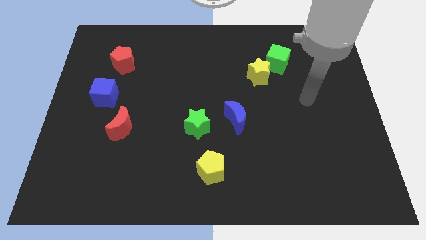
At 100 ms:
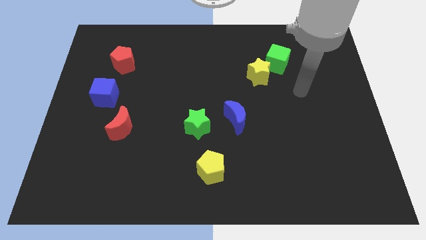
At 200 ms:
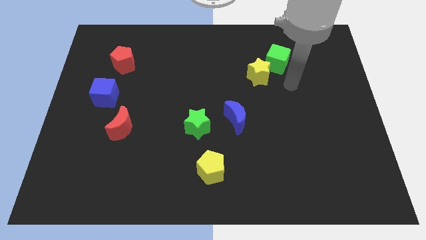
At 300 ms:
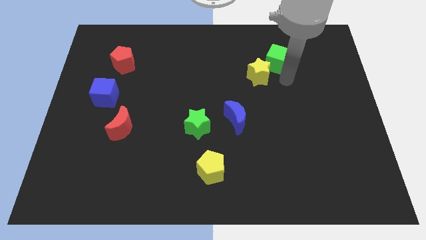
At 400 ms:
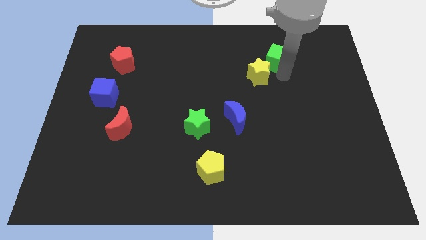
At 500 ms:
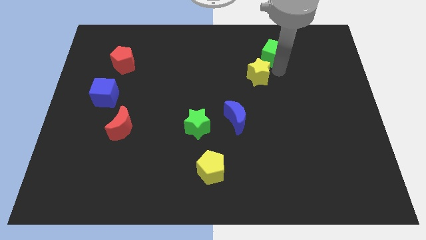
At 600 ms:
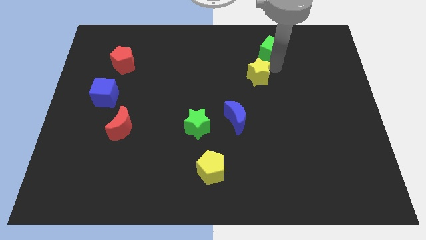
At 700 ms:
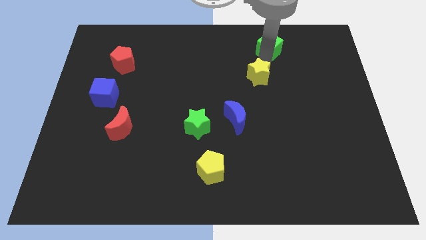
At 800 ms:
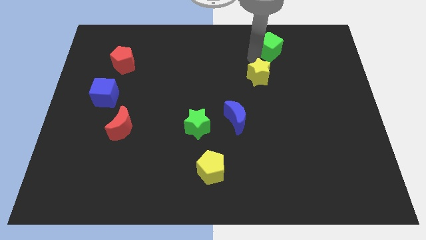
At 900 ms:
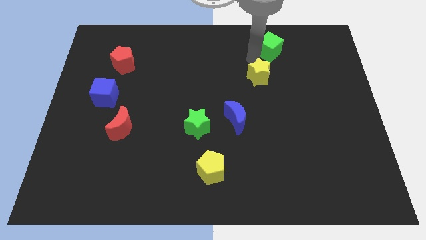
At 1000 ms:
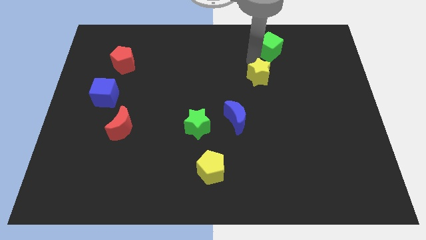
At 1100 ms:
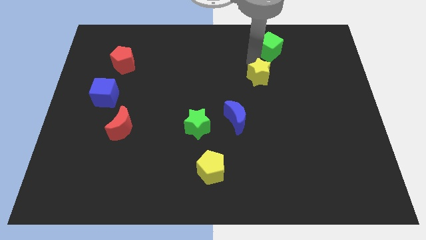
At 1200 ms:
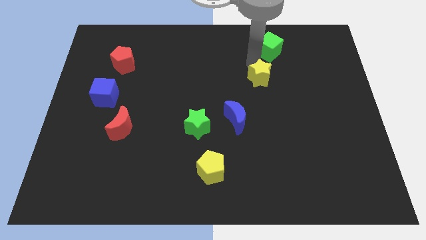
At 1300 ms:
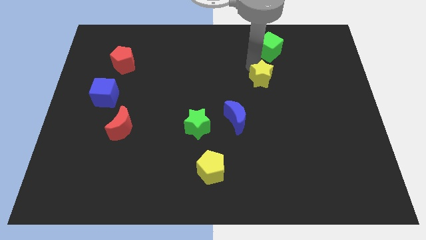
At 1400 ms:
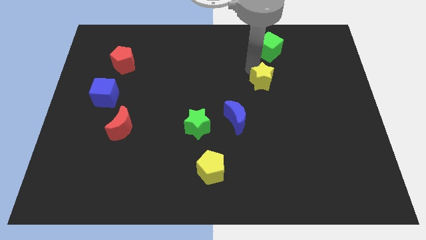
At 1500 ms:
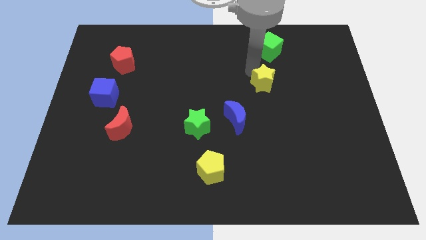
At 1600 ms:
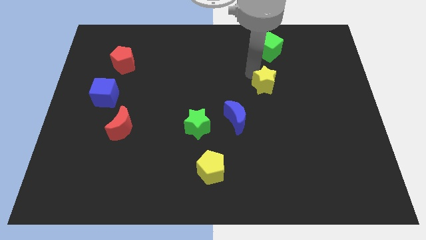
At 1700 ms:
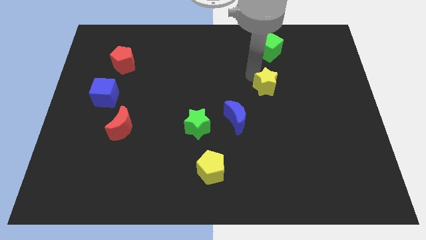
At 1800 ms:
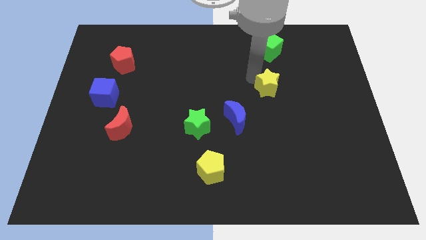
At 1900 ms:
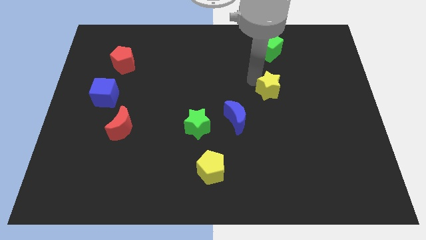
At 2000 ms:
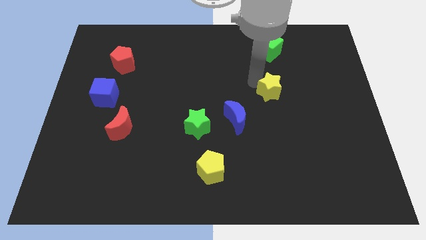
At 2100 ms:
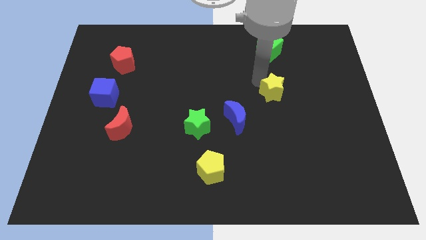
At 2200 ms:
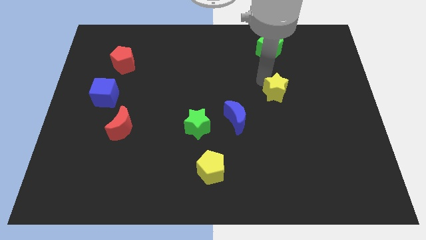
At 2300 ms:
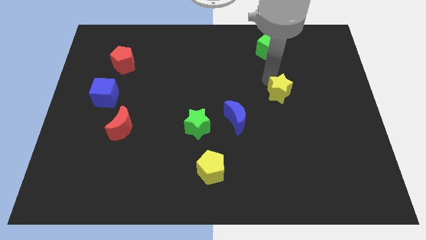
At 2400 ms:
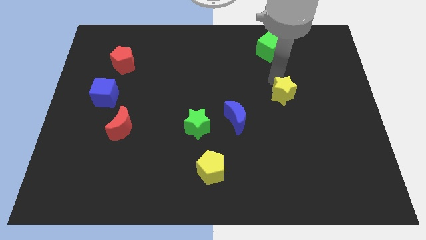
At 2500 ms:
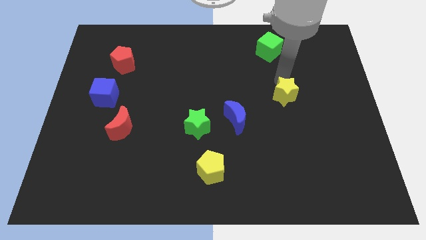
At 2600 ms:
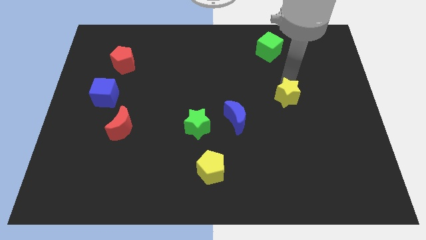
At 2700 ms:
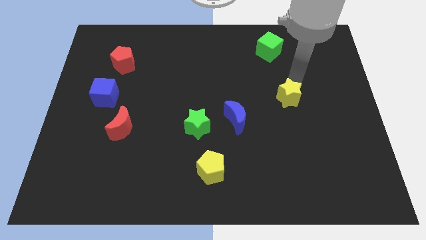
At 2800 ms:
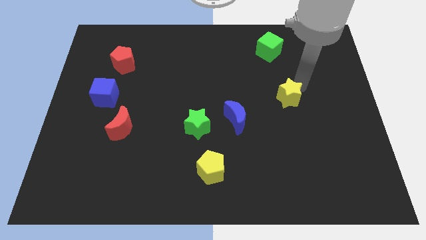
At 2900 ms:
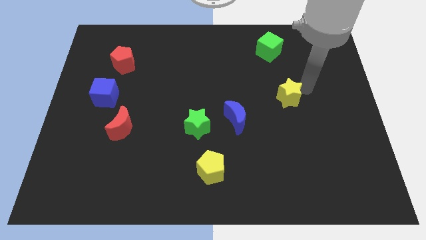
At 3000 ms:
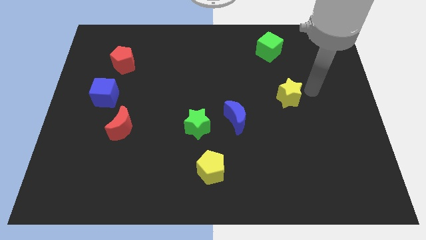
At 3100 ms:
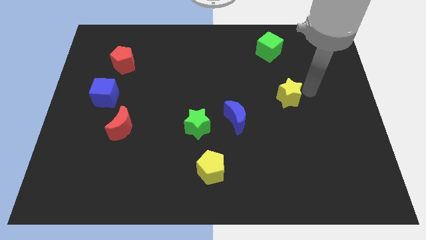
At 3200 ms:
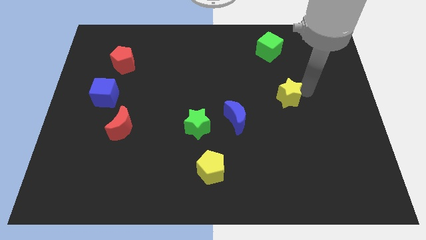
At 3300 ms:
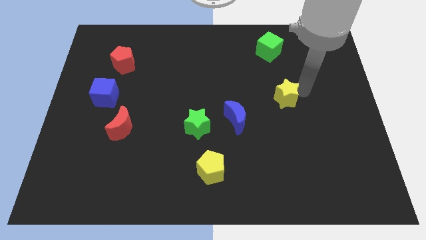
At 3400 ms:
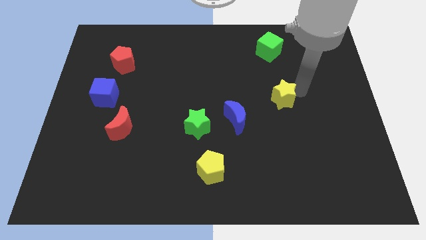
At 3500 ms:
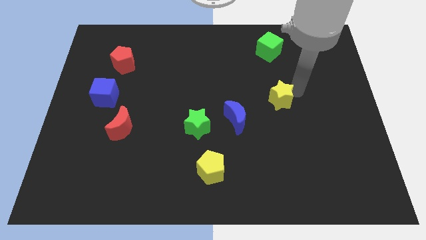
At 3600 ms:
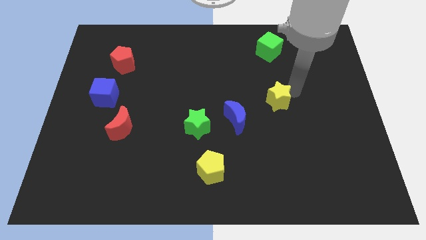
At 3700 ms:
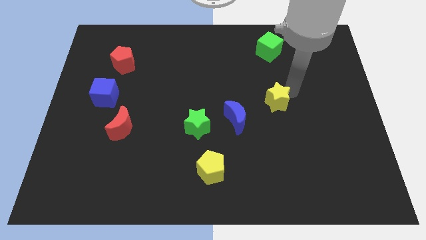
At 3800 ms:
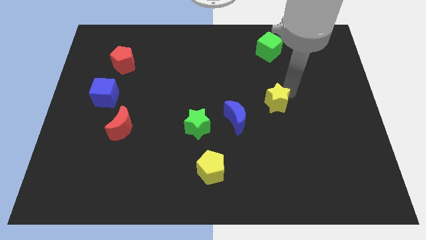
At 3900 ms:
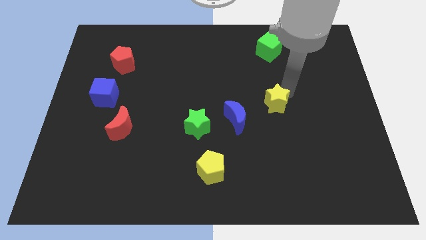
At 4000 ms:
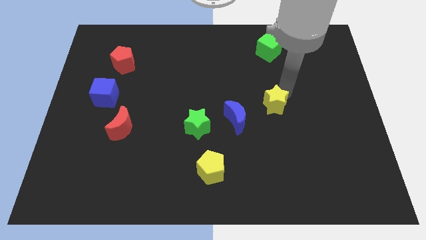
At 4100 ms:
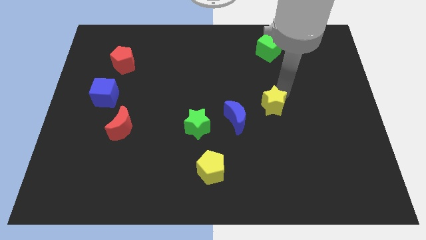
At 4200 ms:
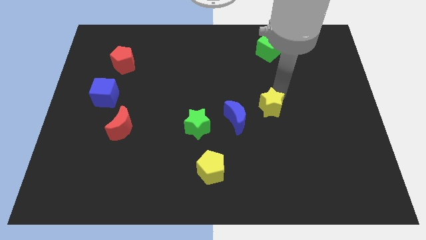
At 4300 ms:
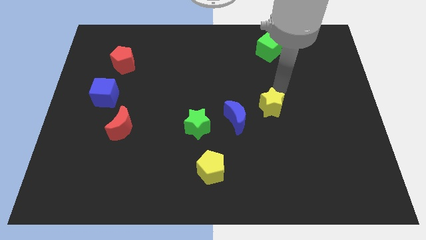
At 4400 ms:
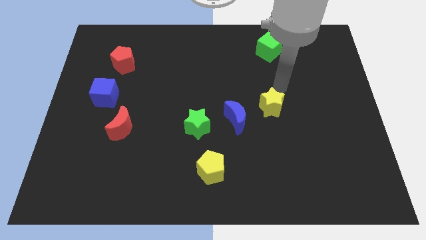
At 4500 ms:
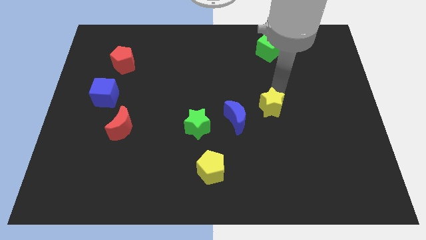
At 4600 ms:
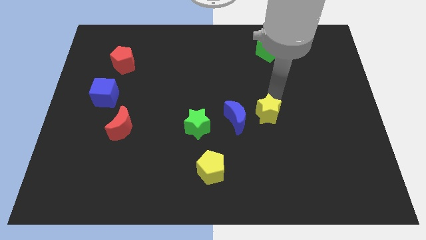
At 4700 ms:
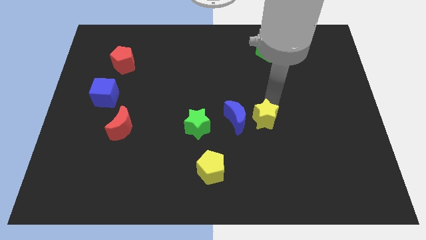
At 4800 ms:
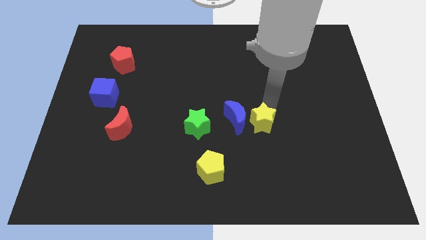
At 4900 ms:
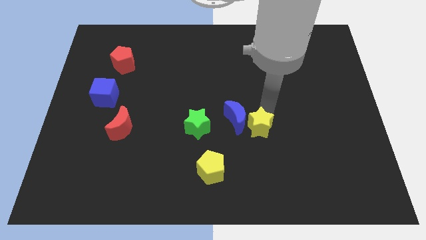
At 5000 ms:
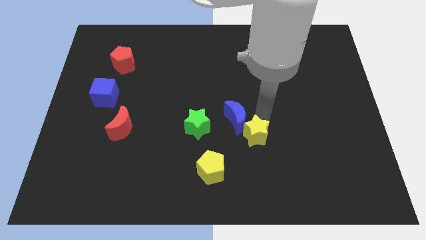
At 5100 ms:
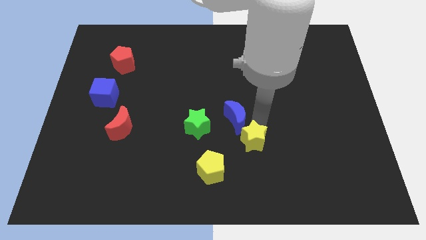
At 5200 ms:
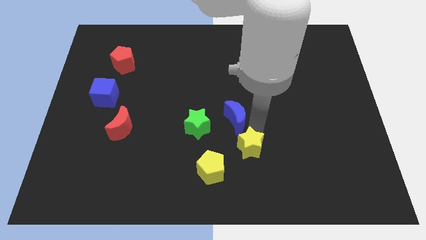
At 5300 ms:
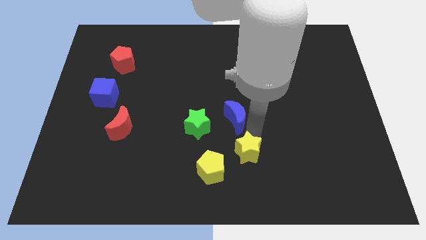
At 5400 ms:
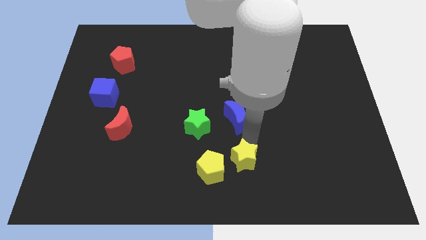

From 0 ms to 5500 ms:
slide the yellow star to the bottom

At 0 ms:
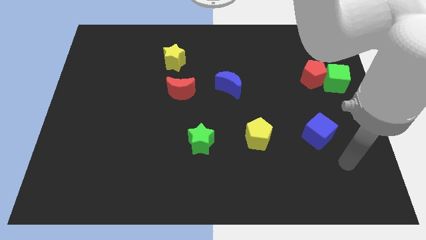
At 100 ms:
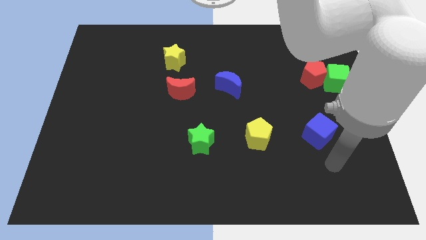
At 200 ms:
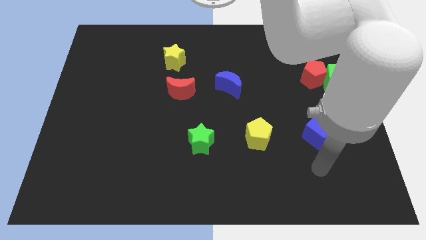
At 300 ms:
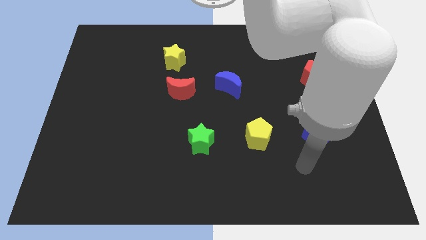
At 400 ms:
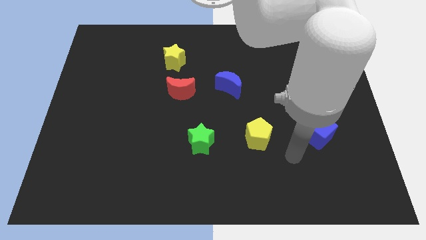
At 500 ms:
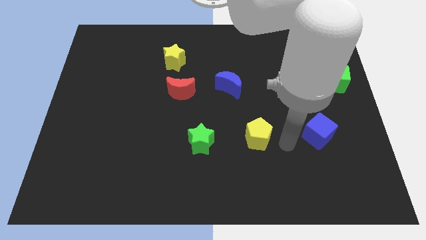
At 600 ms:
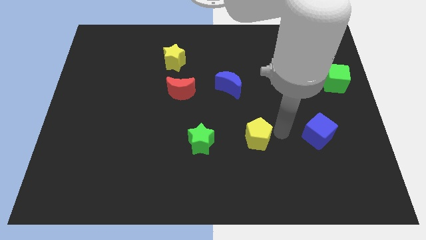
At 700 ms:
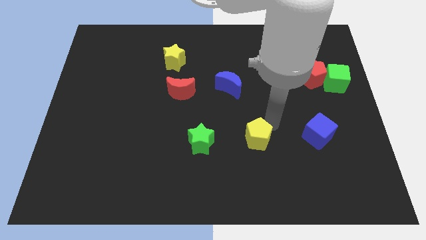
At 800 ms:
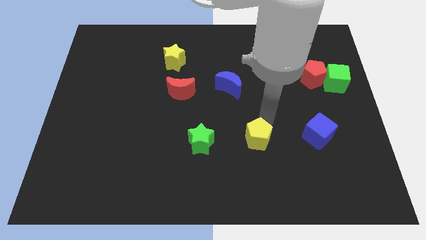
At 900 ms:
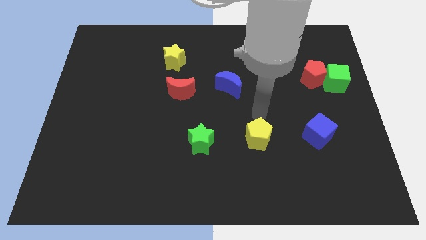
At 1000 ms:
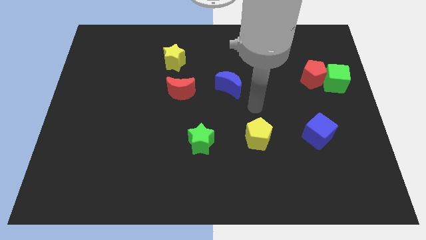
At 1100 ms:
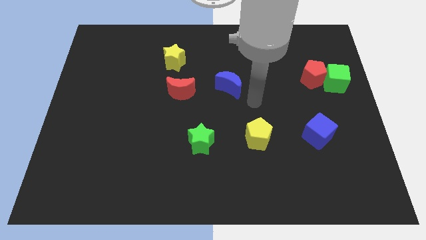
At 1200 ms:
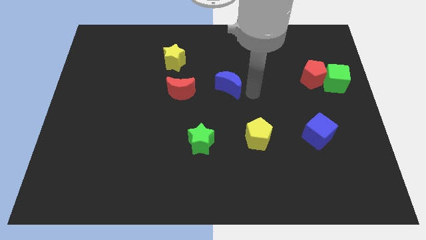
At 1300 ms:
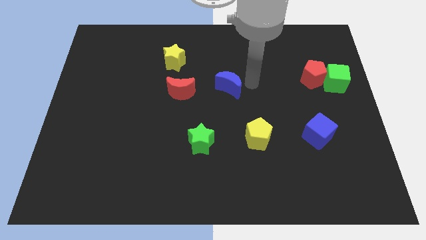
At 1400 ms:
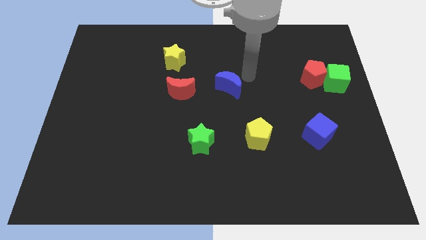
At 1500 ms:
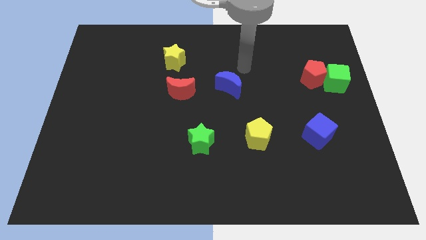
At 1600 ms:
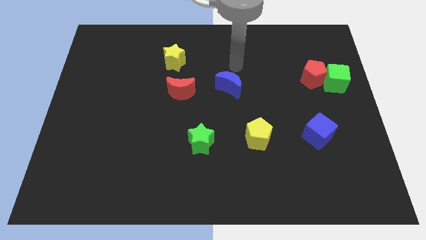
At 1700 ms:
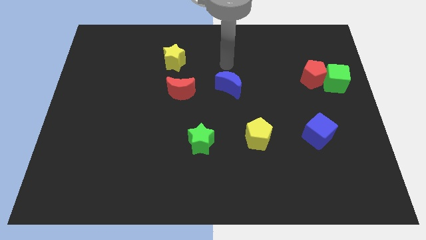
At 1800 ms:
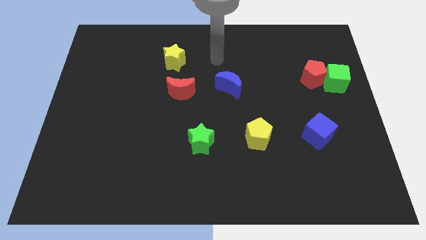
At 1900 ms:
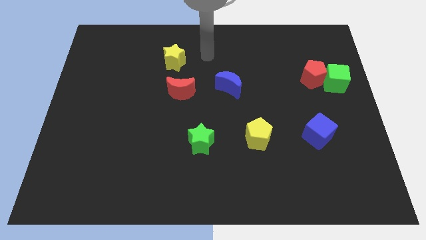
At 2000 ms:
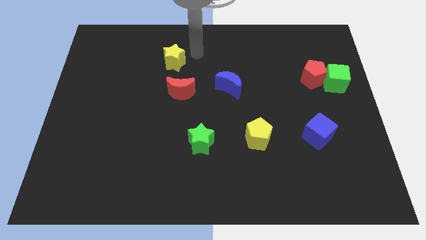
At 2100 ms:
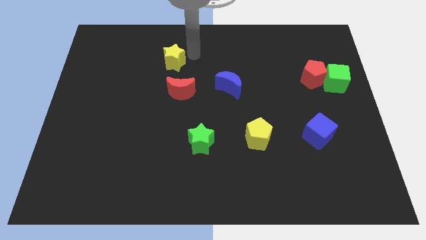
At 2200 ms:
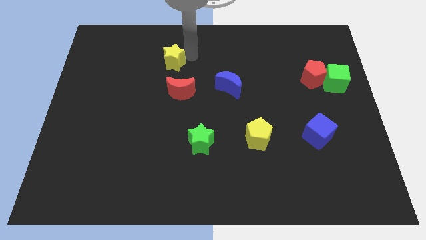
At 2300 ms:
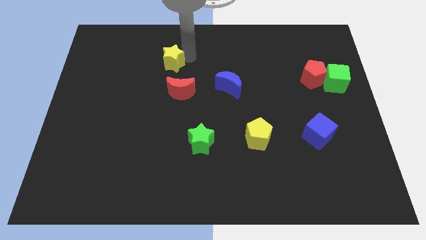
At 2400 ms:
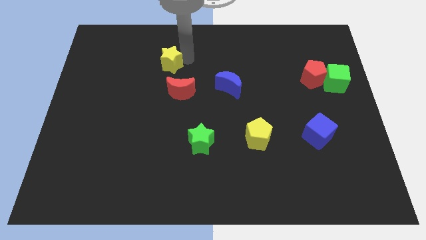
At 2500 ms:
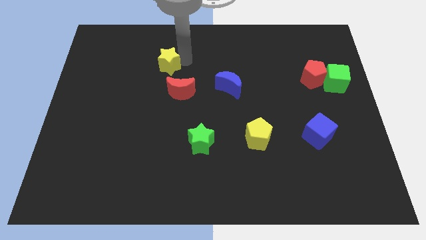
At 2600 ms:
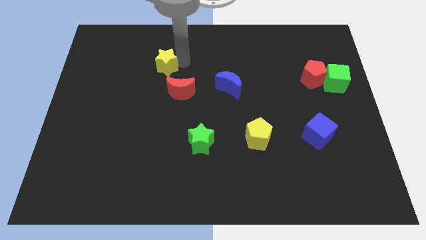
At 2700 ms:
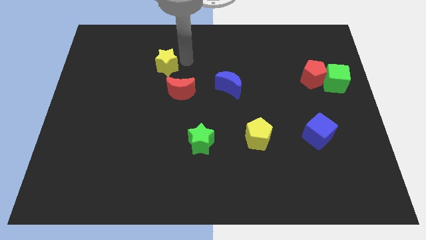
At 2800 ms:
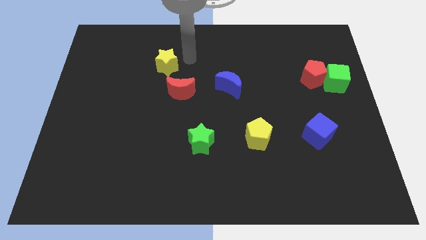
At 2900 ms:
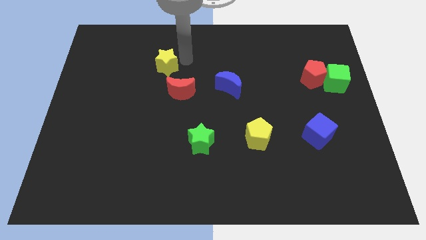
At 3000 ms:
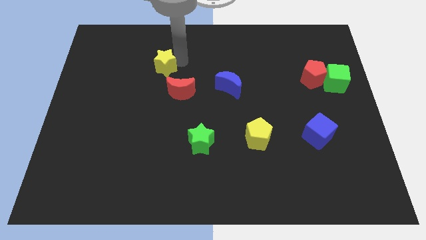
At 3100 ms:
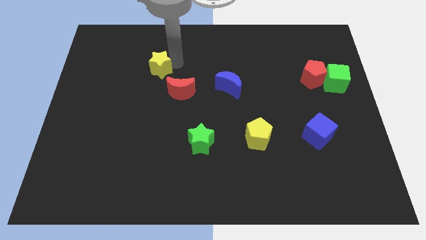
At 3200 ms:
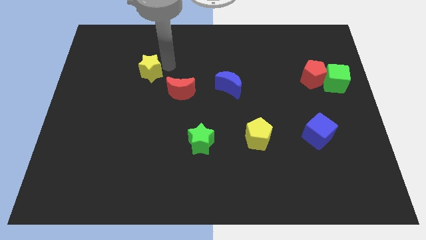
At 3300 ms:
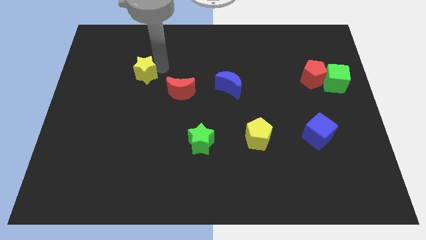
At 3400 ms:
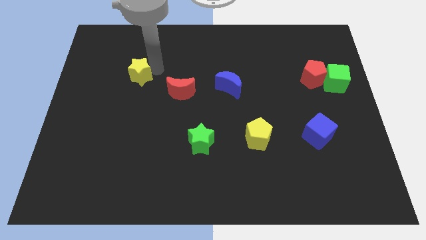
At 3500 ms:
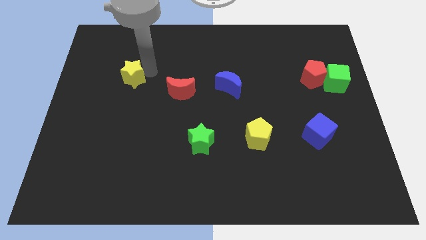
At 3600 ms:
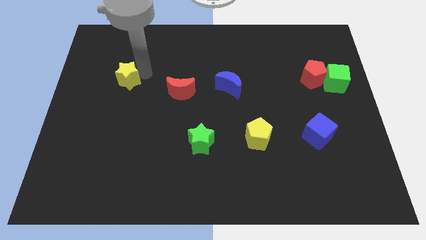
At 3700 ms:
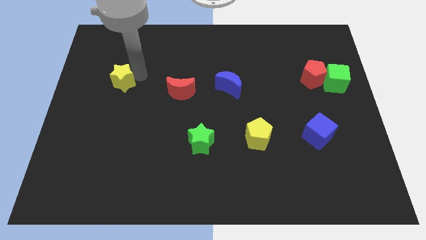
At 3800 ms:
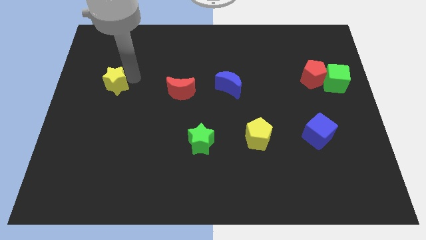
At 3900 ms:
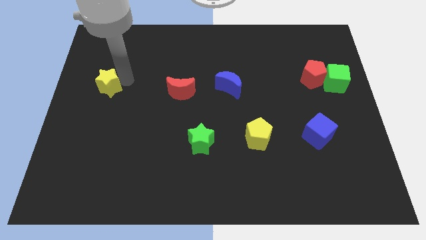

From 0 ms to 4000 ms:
push the yellow star to the center left
